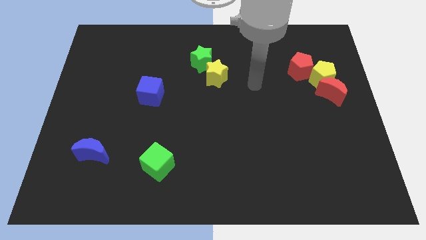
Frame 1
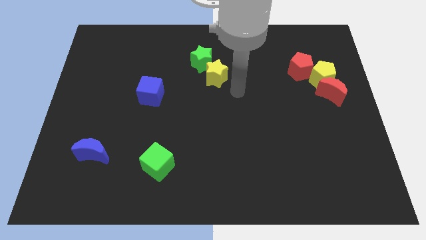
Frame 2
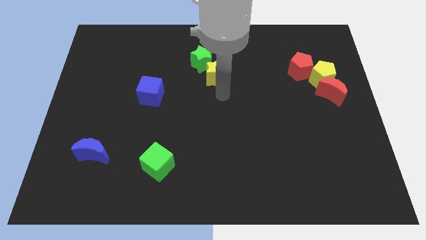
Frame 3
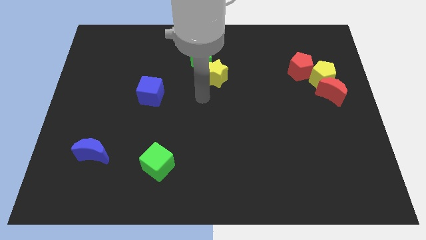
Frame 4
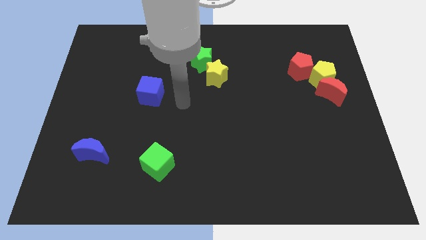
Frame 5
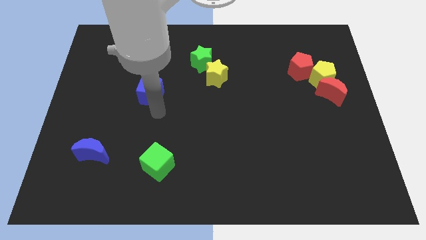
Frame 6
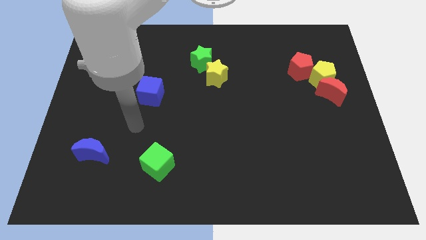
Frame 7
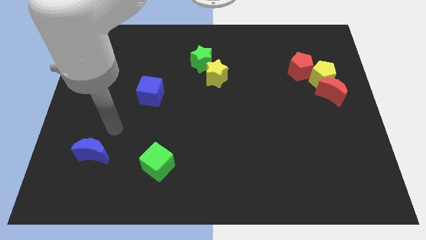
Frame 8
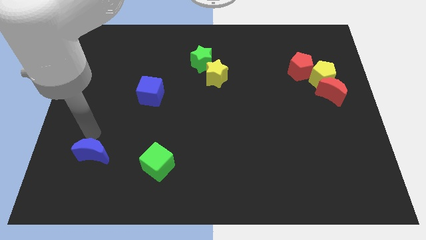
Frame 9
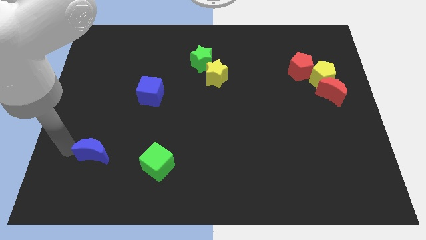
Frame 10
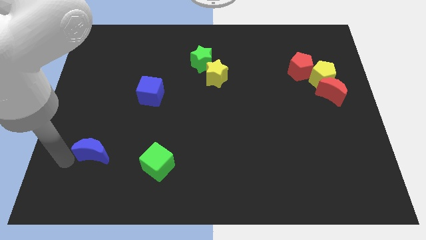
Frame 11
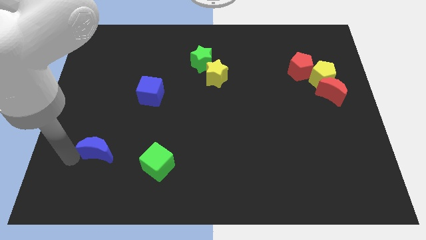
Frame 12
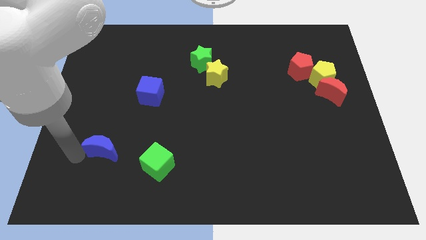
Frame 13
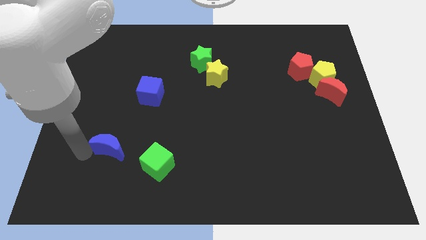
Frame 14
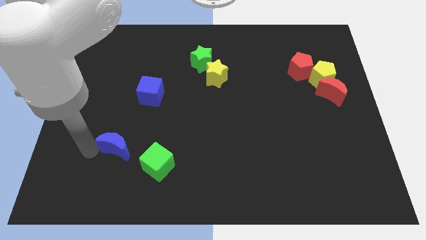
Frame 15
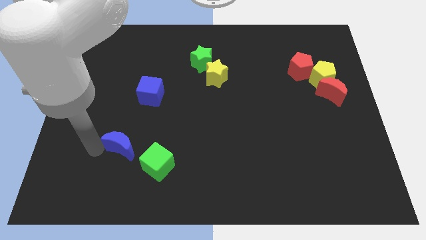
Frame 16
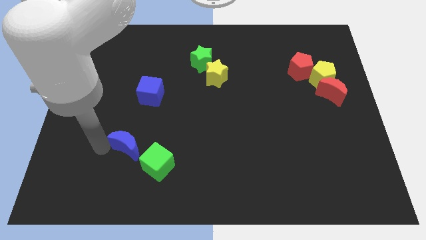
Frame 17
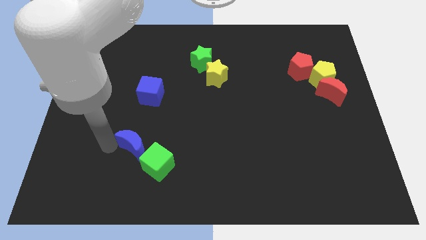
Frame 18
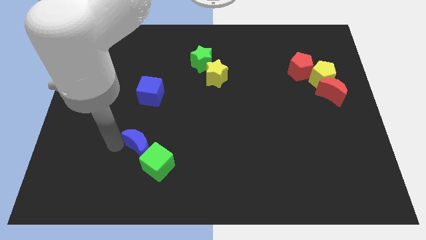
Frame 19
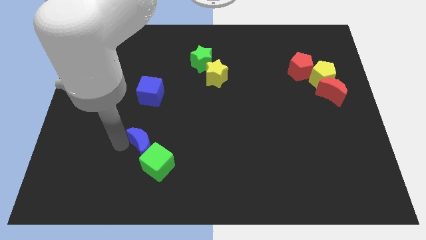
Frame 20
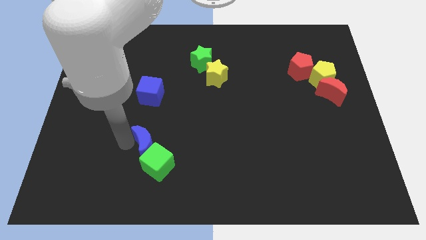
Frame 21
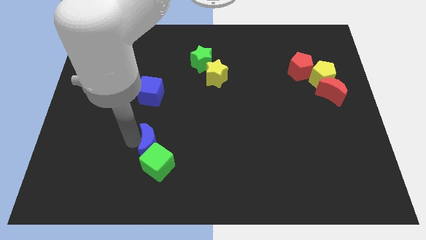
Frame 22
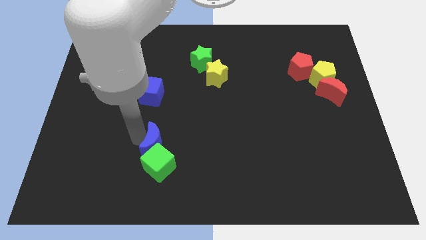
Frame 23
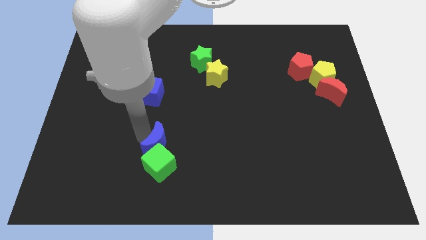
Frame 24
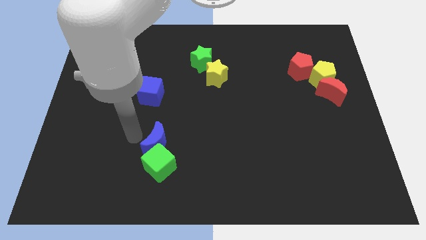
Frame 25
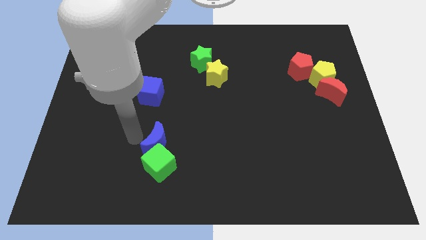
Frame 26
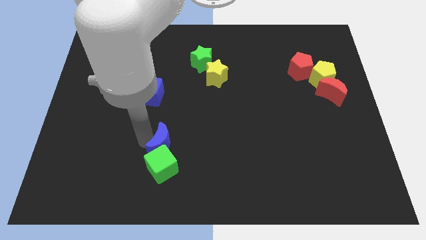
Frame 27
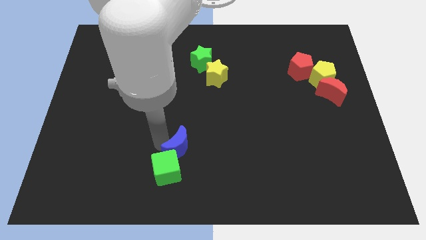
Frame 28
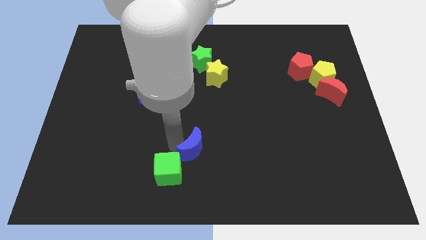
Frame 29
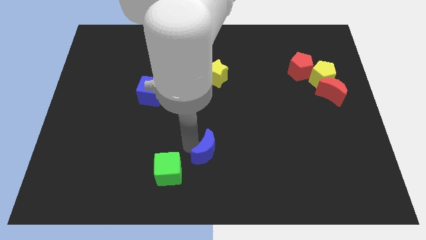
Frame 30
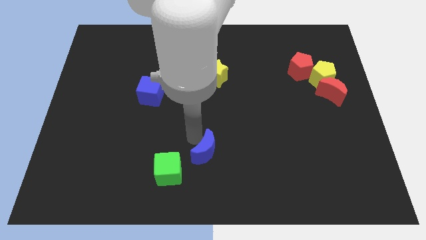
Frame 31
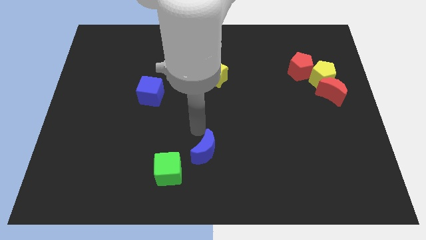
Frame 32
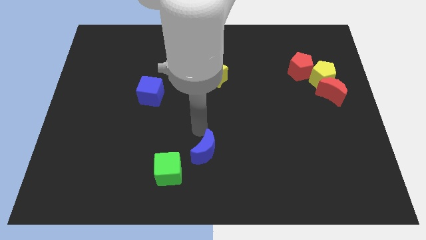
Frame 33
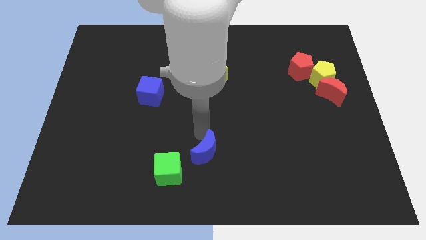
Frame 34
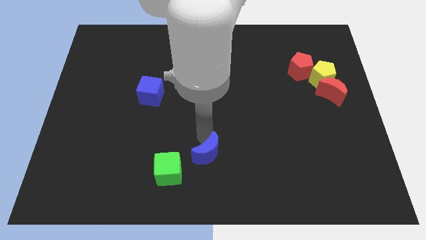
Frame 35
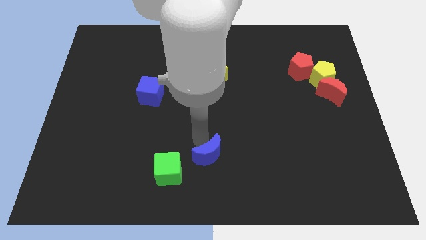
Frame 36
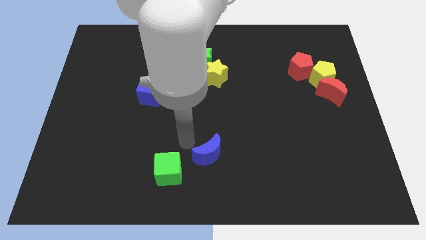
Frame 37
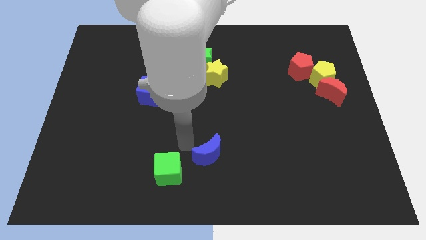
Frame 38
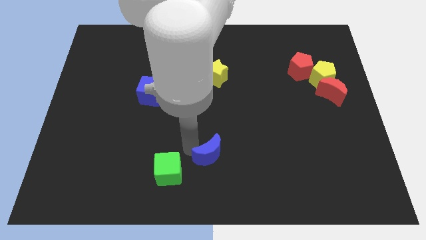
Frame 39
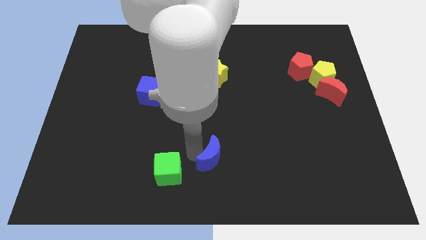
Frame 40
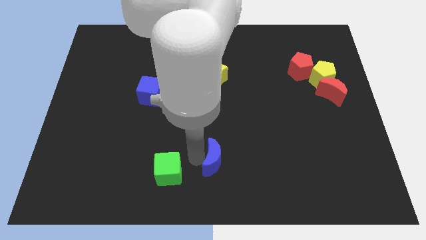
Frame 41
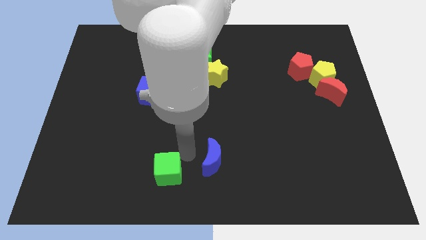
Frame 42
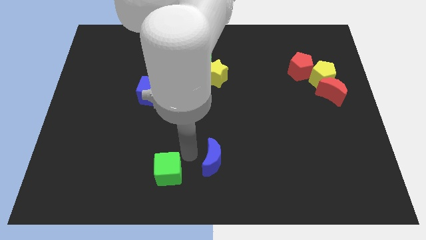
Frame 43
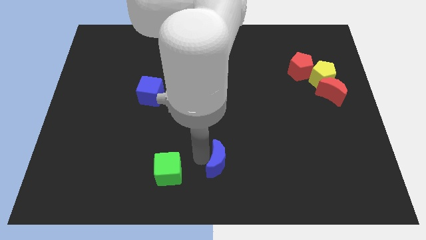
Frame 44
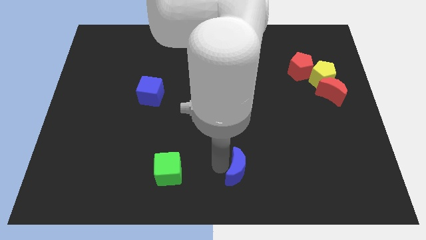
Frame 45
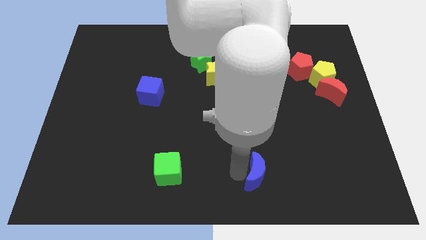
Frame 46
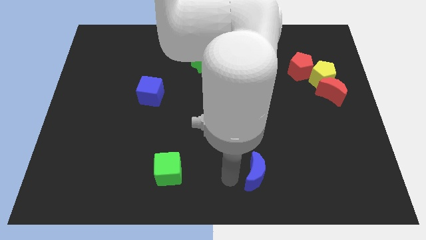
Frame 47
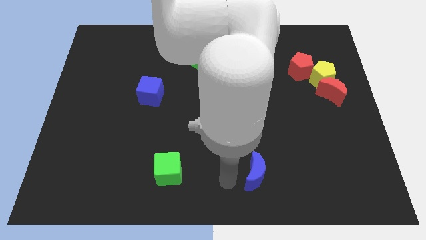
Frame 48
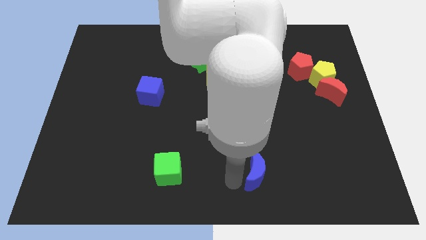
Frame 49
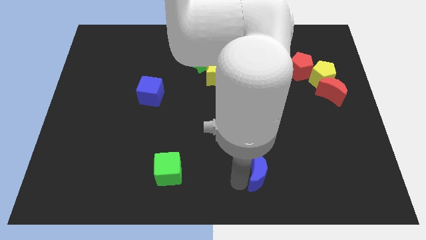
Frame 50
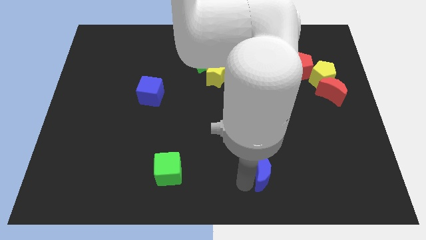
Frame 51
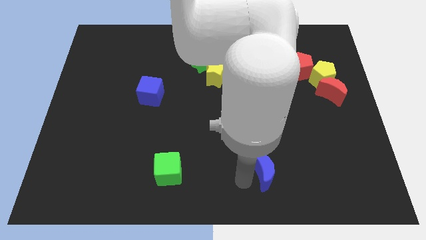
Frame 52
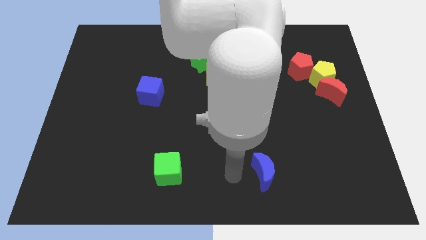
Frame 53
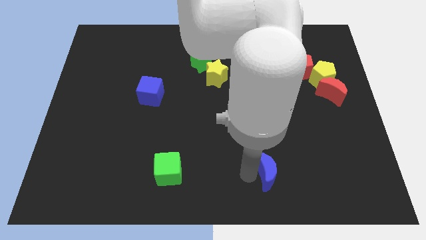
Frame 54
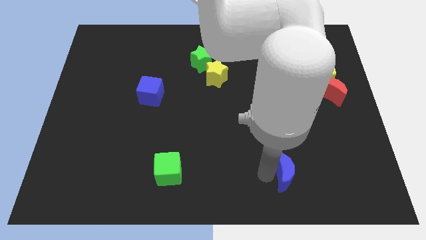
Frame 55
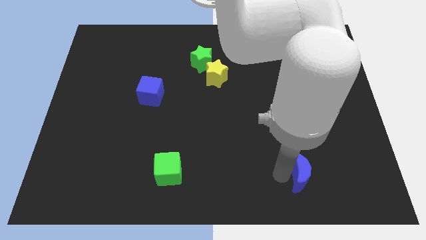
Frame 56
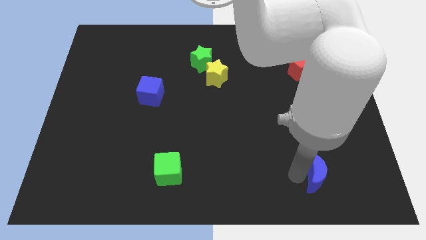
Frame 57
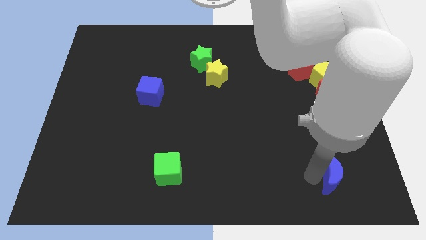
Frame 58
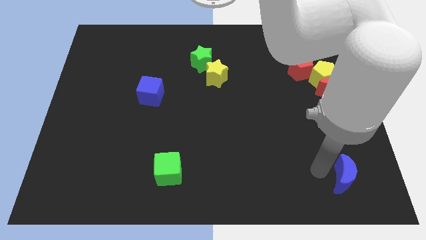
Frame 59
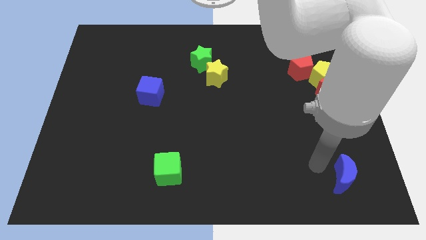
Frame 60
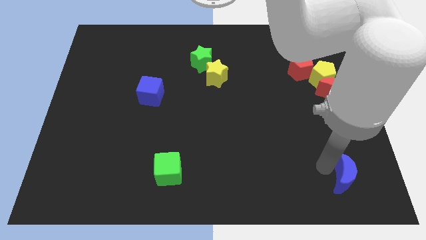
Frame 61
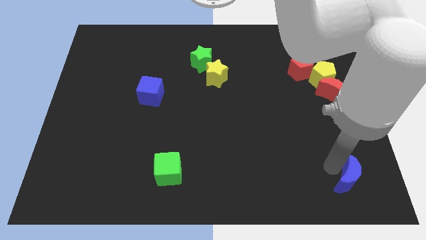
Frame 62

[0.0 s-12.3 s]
put the blue moon to the bottom right of the board

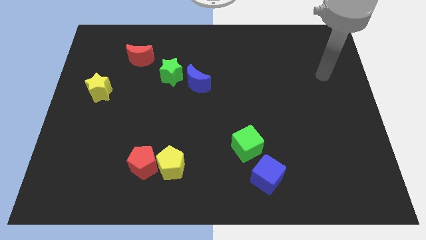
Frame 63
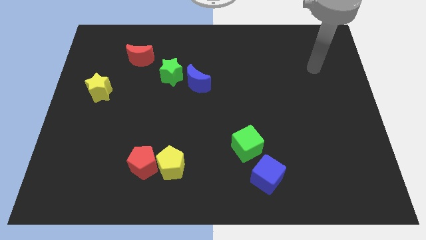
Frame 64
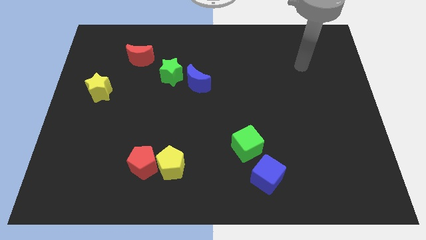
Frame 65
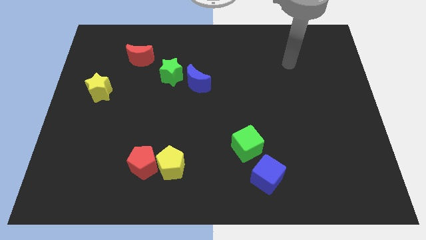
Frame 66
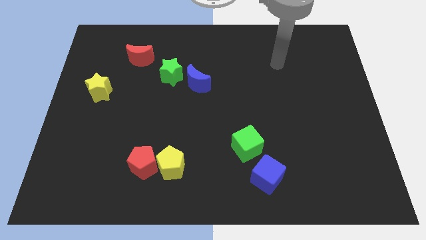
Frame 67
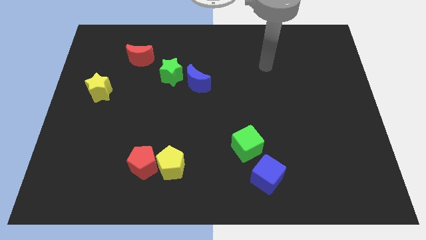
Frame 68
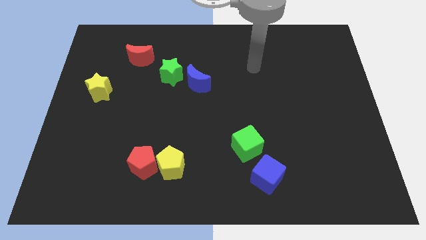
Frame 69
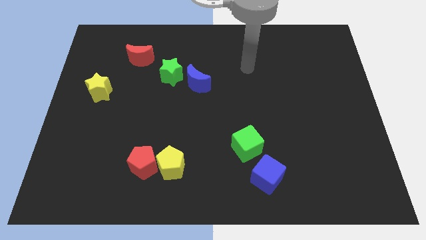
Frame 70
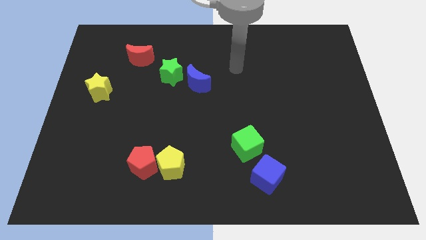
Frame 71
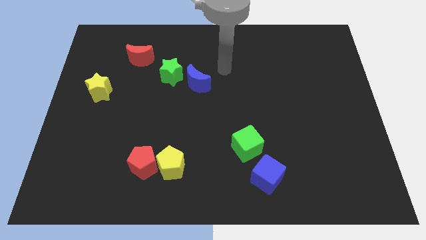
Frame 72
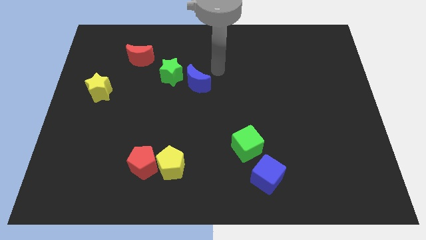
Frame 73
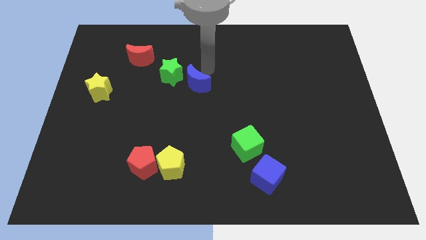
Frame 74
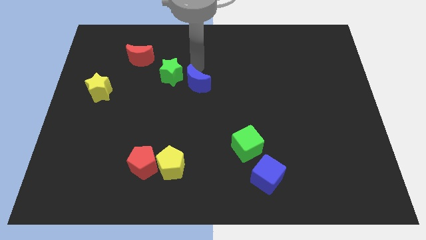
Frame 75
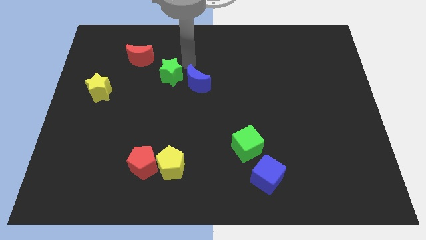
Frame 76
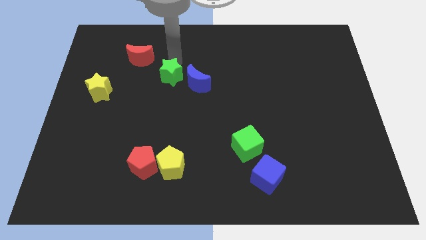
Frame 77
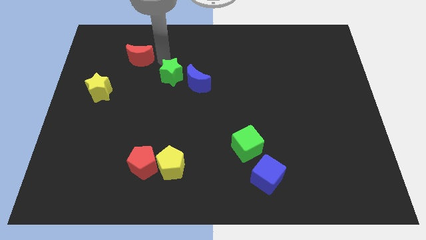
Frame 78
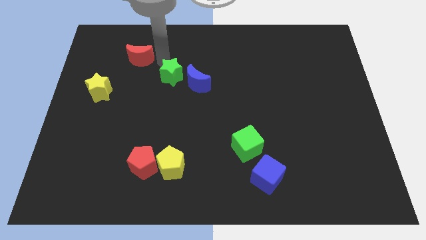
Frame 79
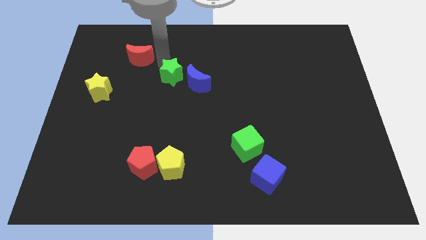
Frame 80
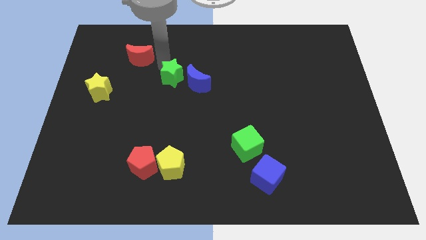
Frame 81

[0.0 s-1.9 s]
move the green star to the center
